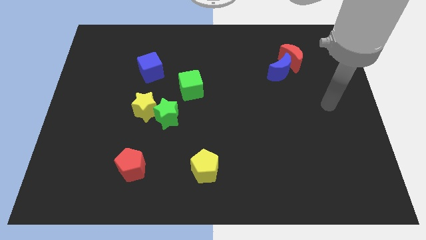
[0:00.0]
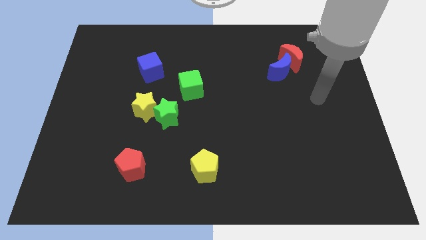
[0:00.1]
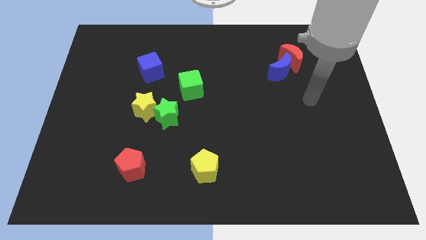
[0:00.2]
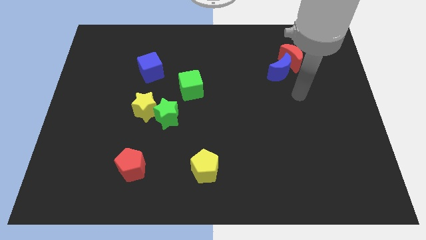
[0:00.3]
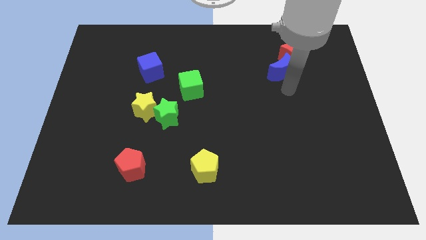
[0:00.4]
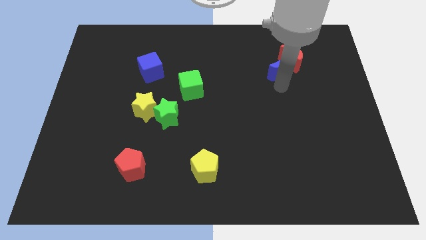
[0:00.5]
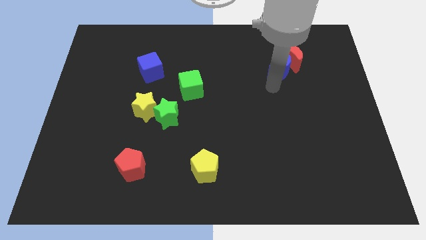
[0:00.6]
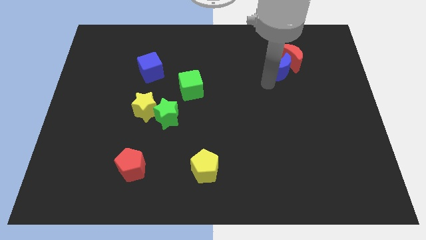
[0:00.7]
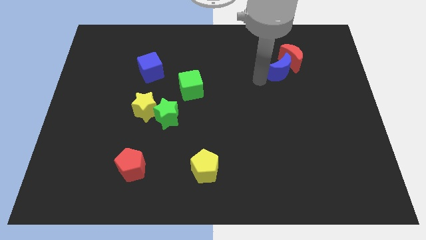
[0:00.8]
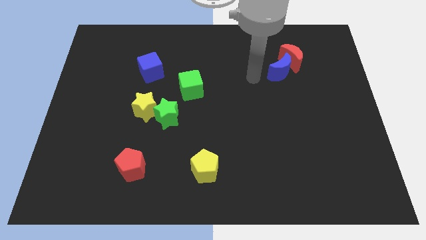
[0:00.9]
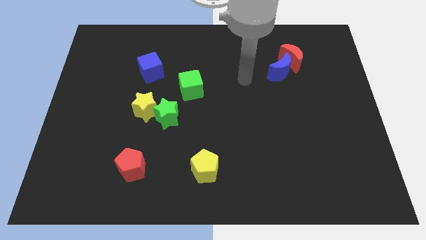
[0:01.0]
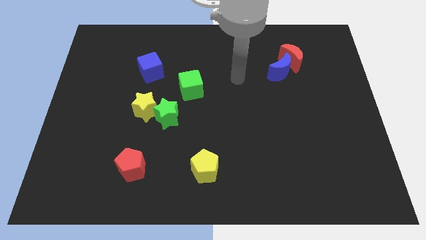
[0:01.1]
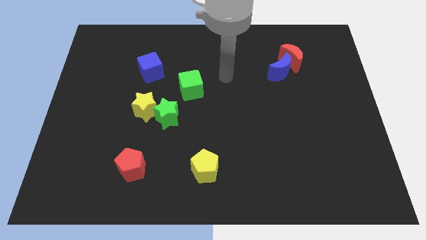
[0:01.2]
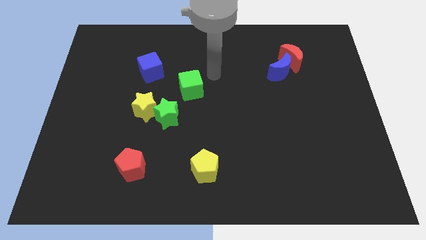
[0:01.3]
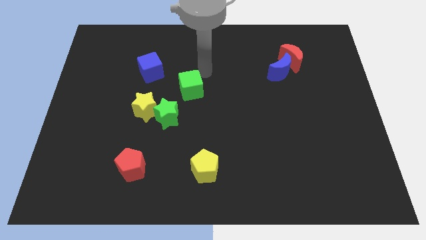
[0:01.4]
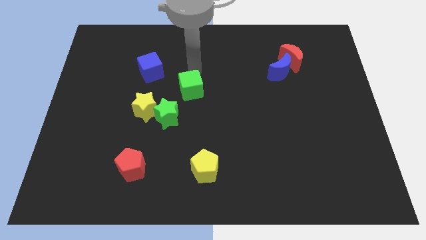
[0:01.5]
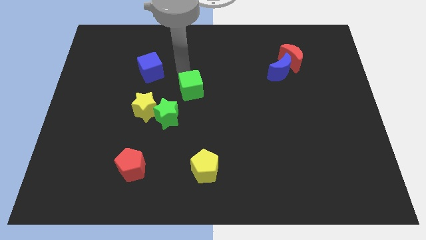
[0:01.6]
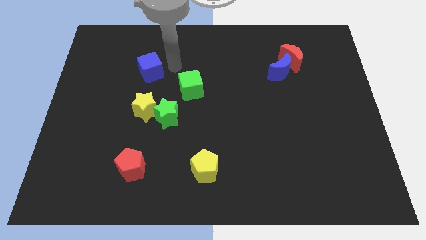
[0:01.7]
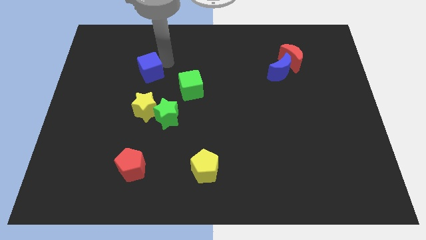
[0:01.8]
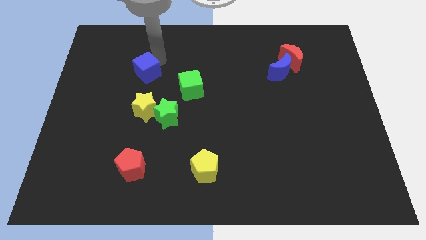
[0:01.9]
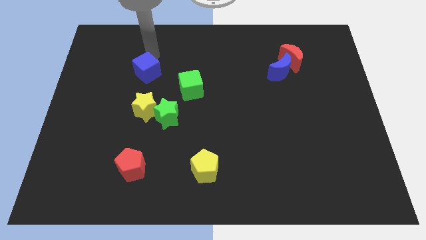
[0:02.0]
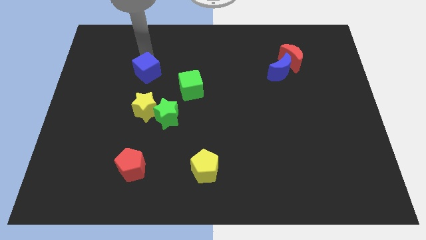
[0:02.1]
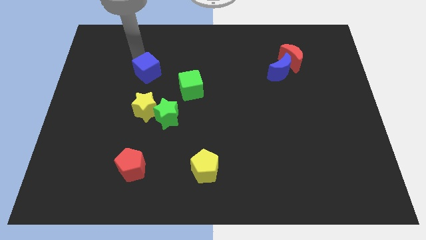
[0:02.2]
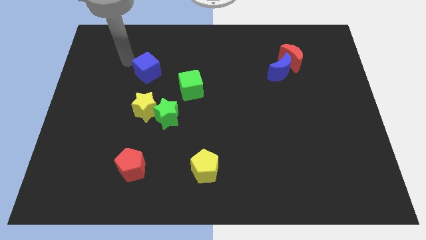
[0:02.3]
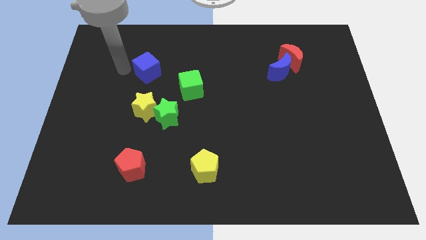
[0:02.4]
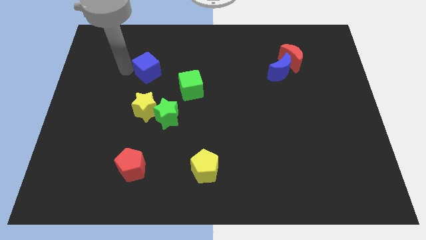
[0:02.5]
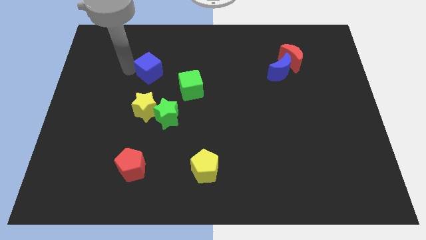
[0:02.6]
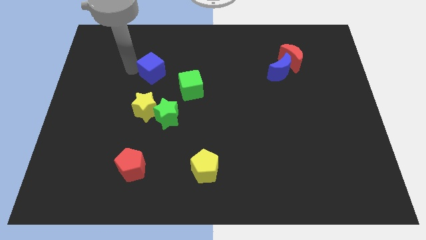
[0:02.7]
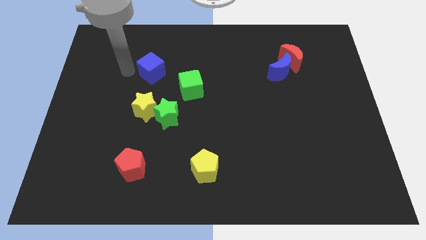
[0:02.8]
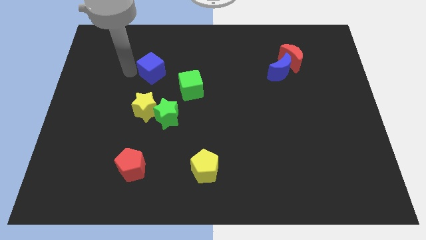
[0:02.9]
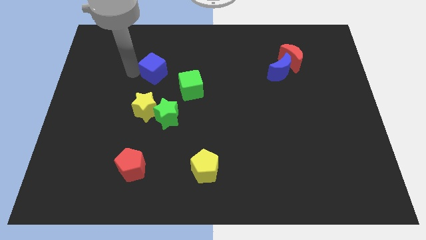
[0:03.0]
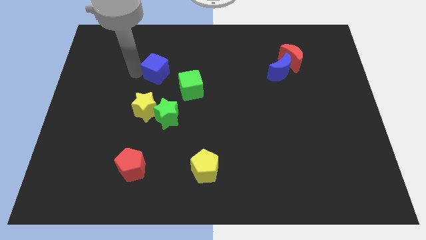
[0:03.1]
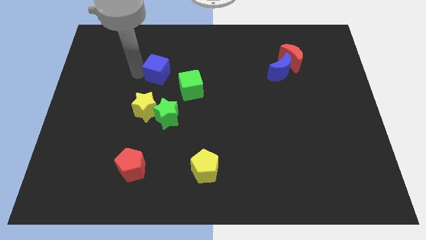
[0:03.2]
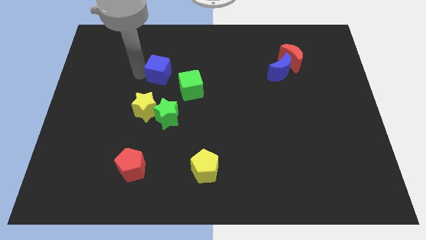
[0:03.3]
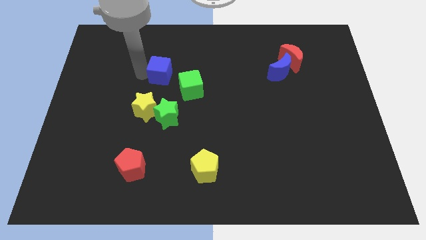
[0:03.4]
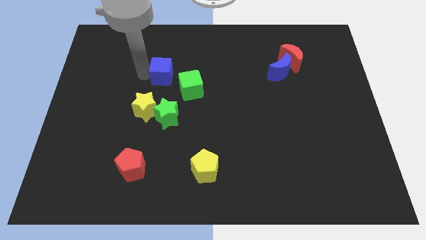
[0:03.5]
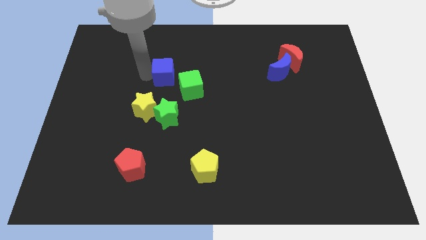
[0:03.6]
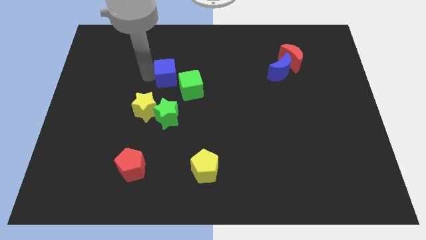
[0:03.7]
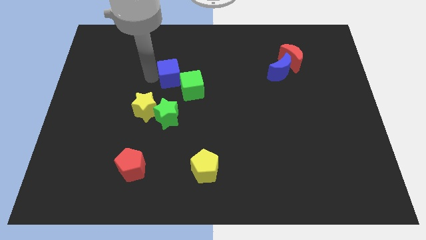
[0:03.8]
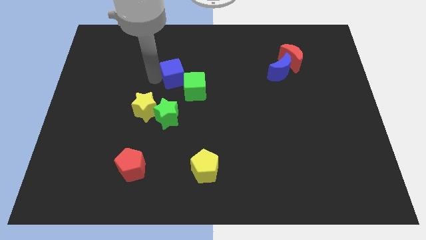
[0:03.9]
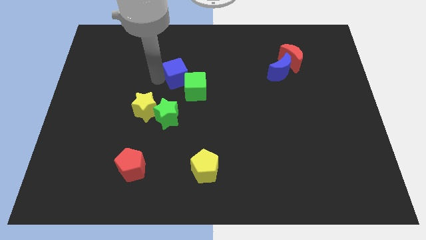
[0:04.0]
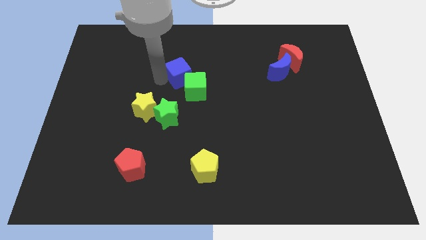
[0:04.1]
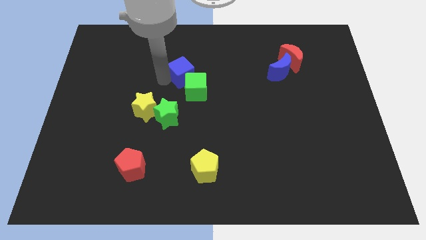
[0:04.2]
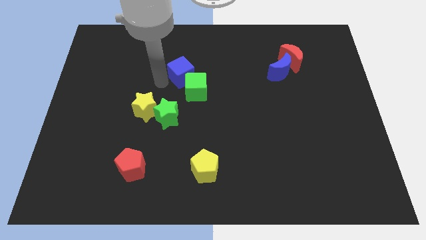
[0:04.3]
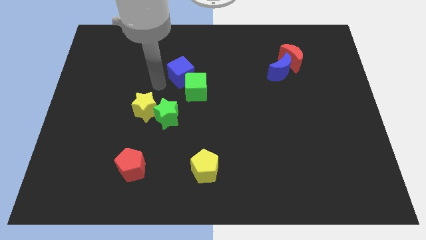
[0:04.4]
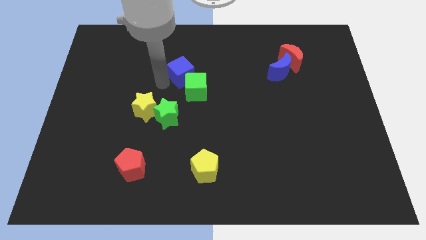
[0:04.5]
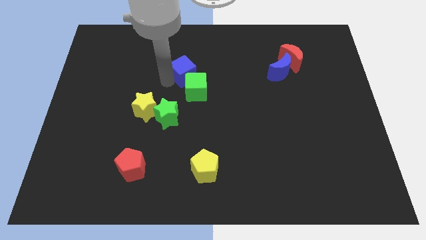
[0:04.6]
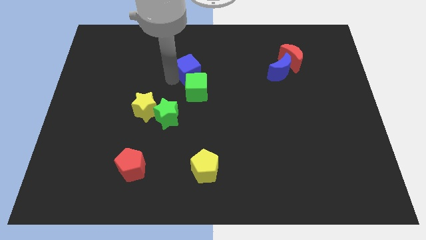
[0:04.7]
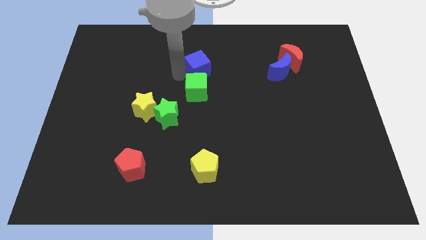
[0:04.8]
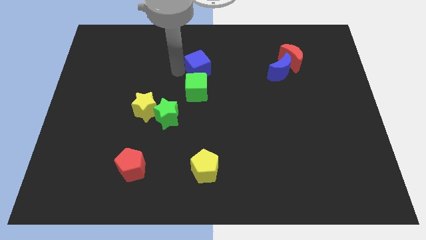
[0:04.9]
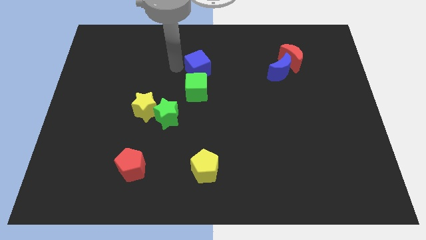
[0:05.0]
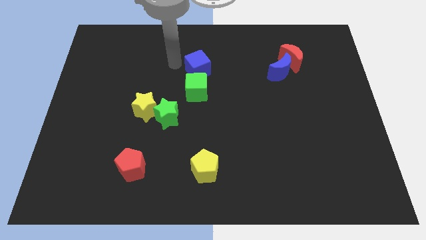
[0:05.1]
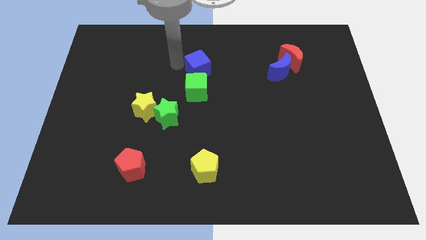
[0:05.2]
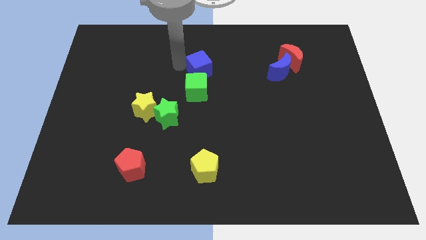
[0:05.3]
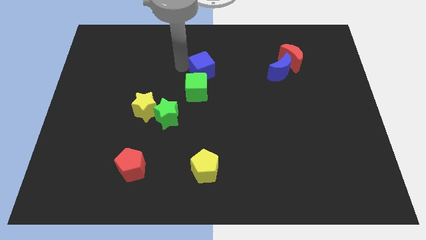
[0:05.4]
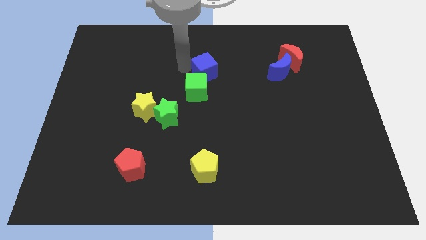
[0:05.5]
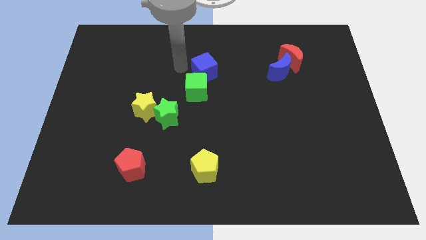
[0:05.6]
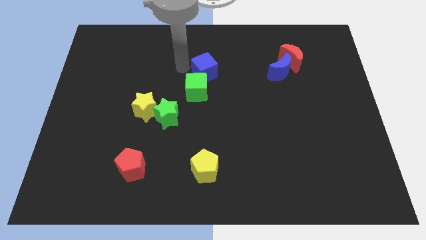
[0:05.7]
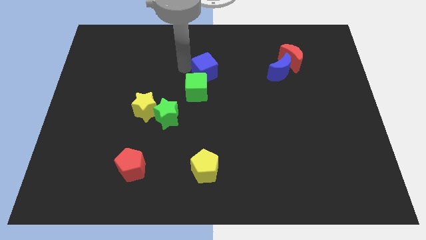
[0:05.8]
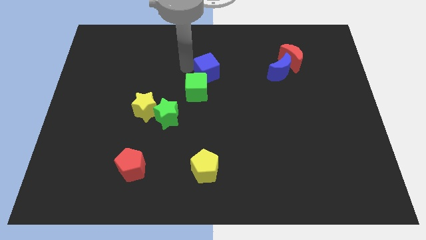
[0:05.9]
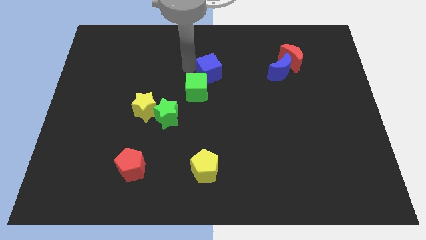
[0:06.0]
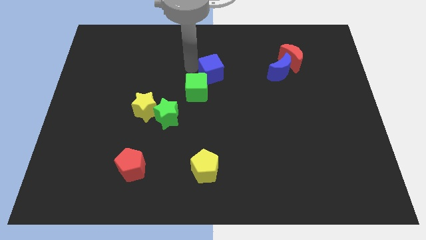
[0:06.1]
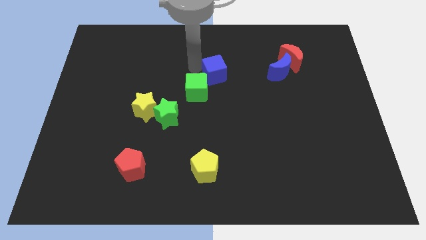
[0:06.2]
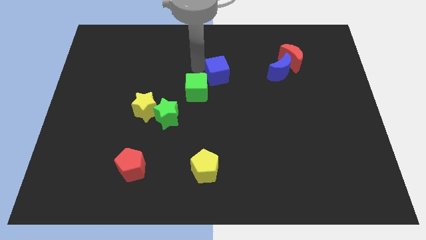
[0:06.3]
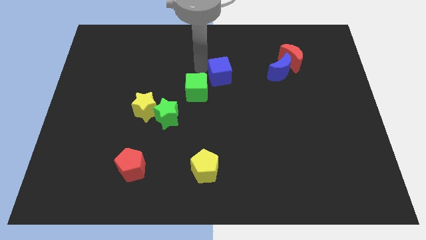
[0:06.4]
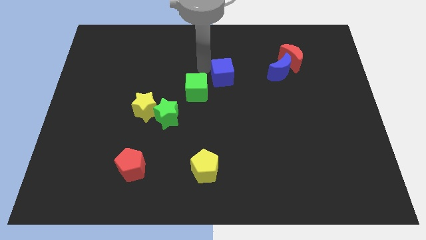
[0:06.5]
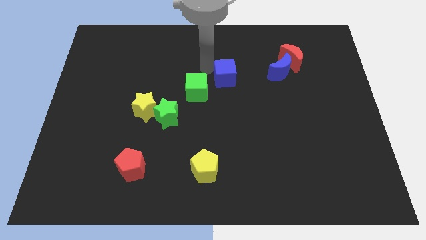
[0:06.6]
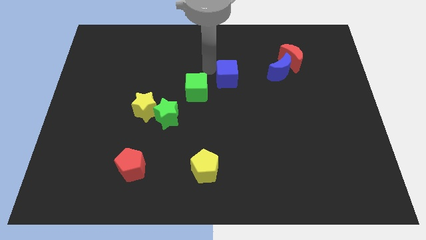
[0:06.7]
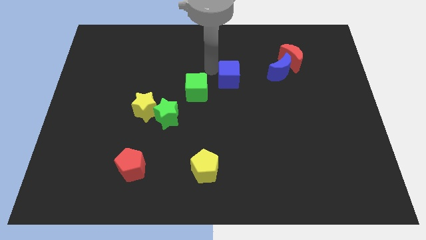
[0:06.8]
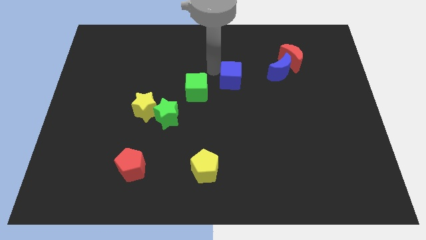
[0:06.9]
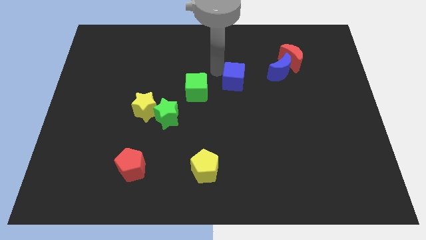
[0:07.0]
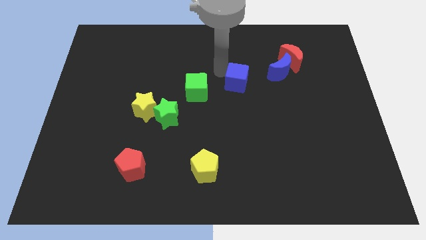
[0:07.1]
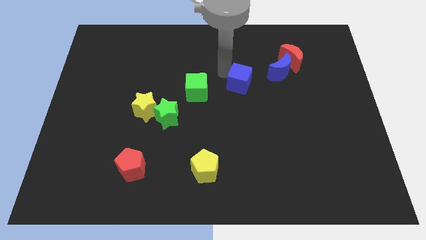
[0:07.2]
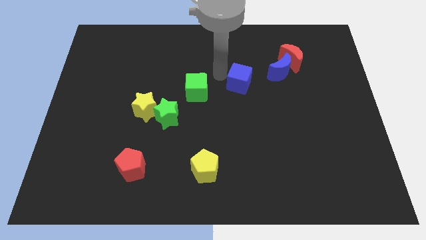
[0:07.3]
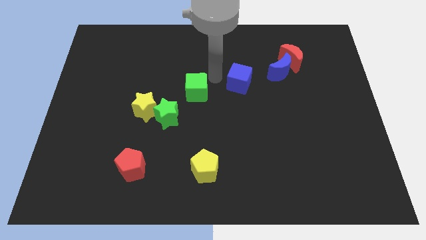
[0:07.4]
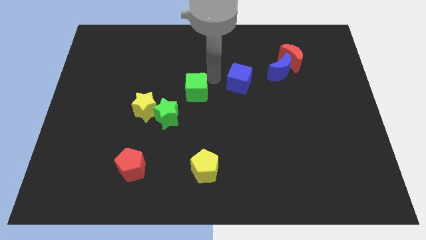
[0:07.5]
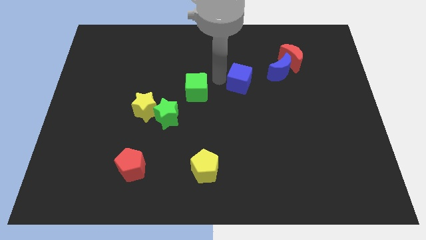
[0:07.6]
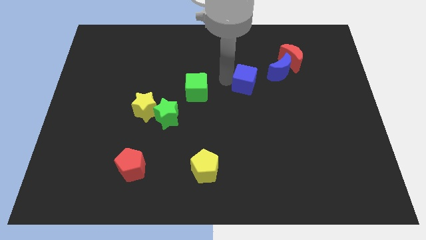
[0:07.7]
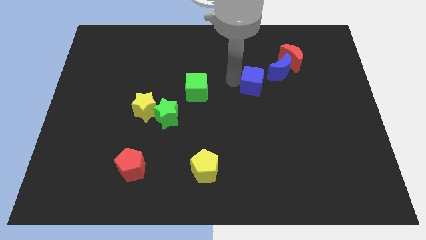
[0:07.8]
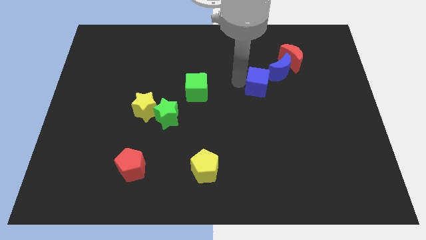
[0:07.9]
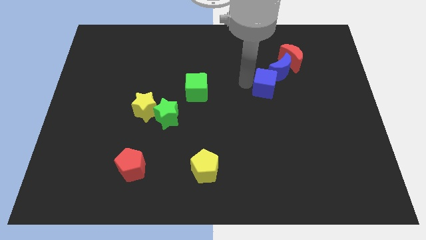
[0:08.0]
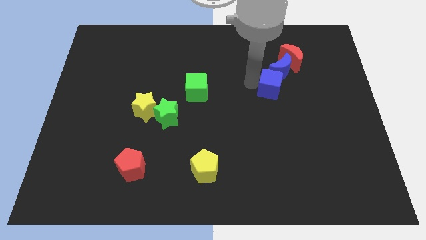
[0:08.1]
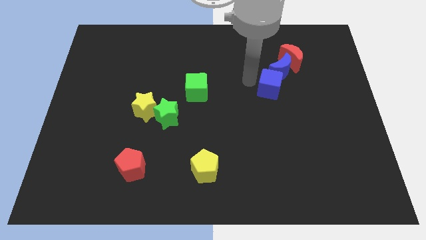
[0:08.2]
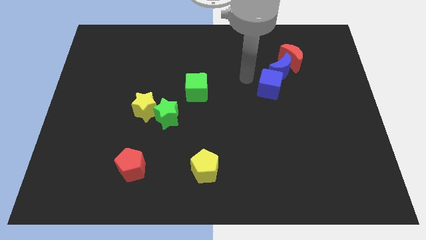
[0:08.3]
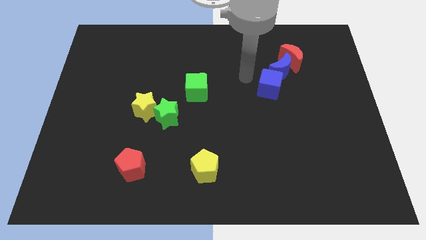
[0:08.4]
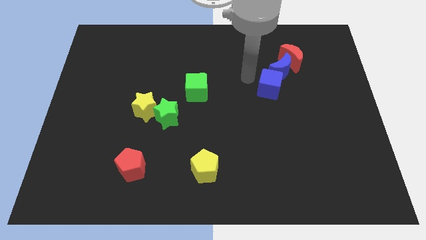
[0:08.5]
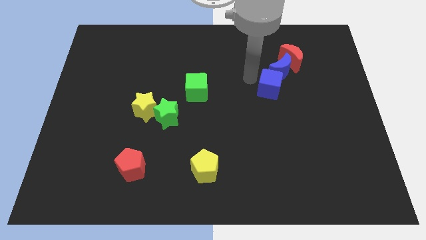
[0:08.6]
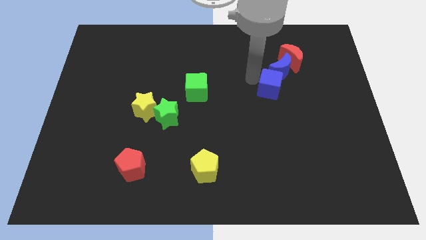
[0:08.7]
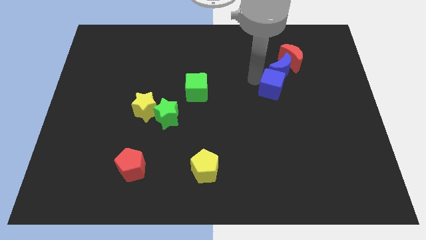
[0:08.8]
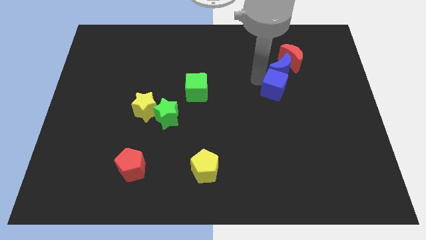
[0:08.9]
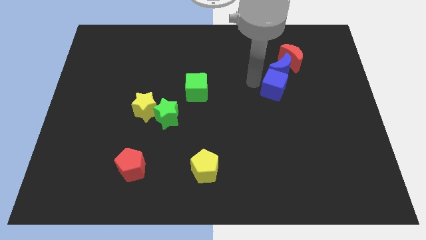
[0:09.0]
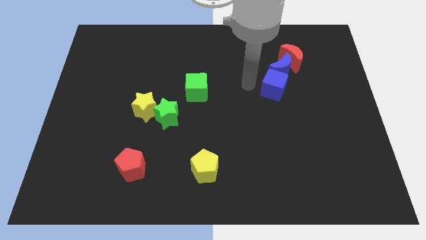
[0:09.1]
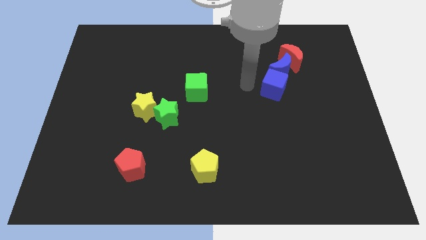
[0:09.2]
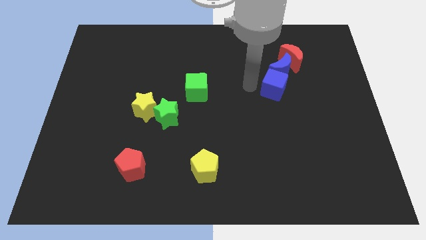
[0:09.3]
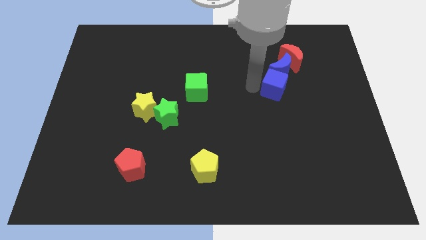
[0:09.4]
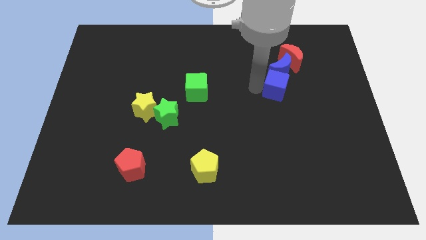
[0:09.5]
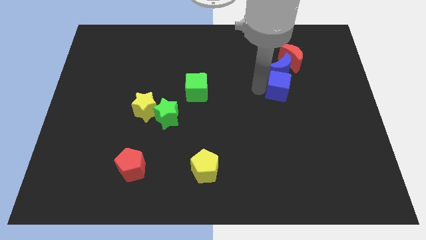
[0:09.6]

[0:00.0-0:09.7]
slide the blue cube to the bottom of the red moon
